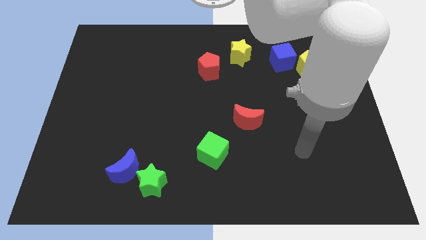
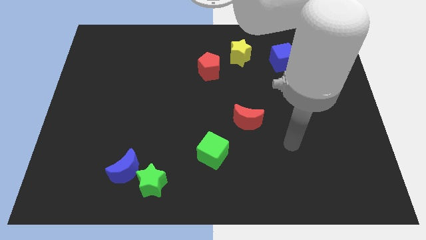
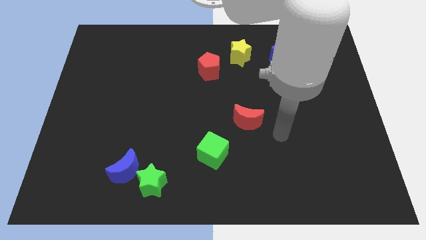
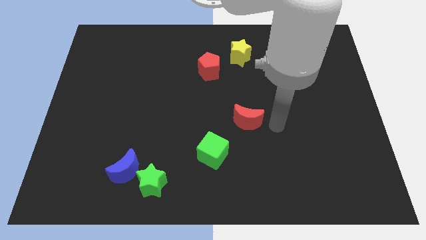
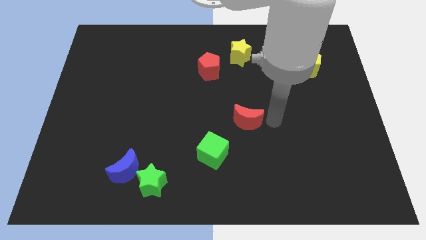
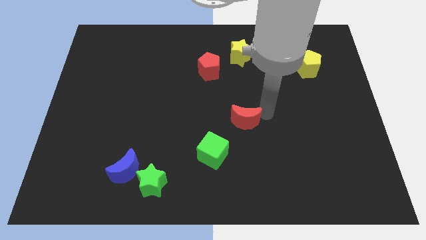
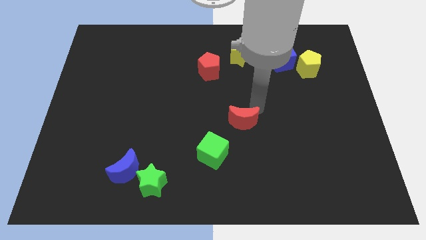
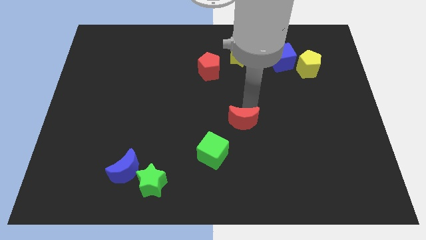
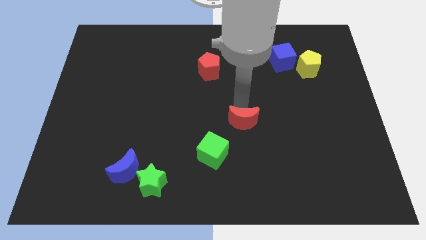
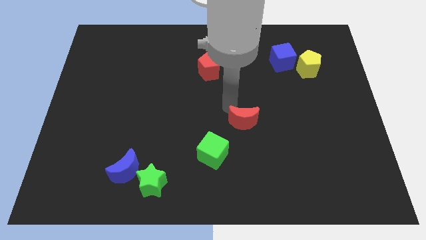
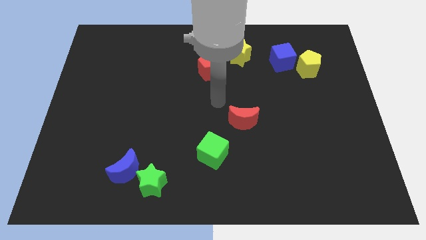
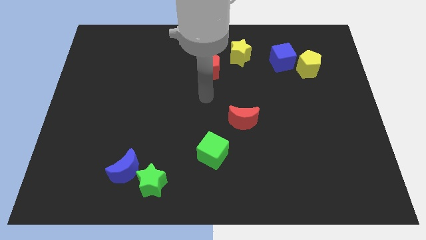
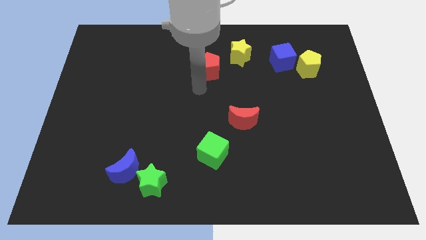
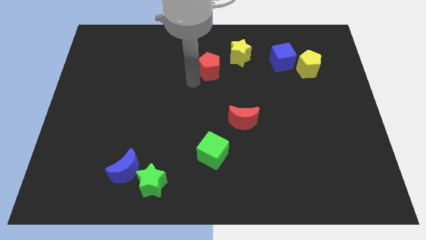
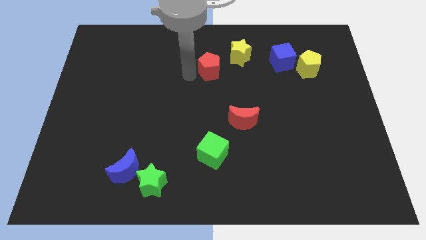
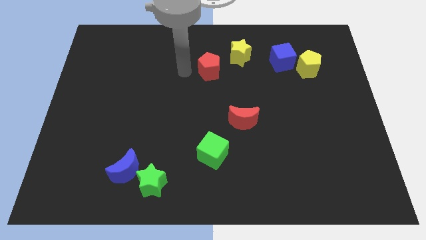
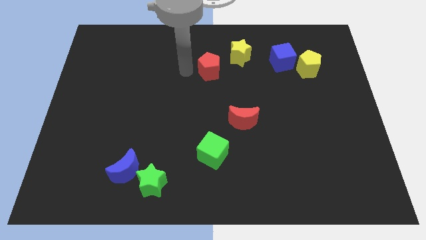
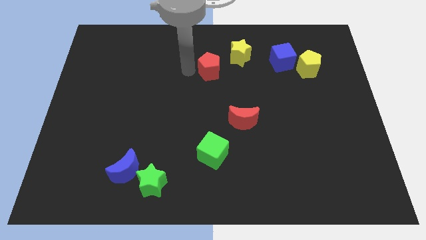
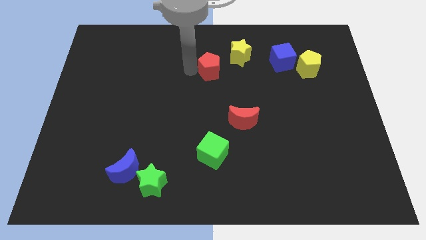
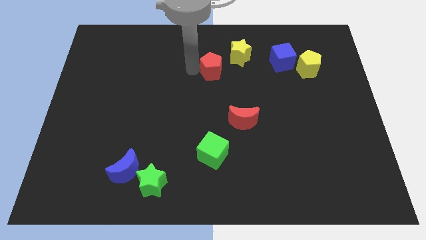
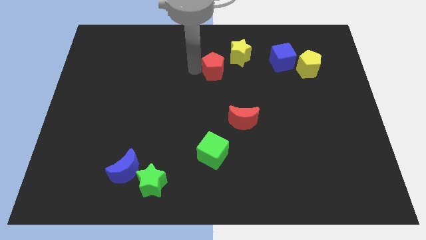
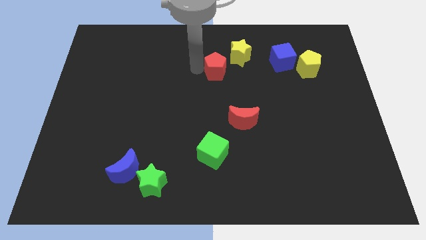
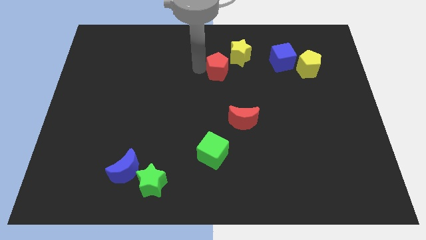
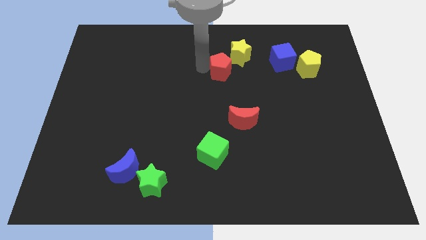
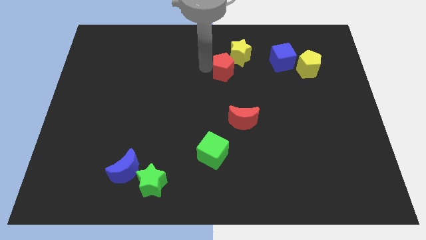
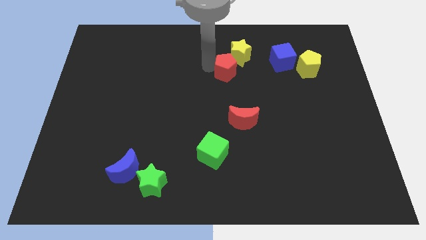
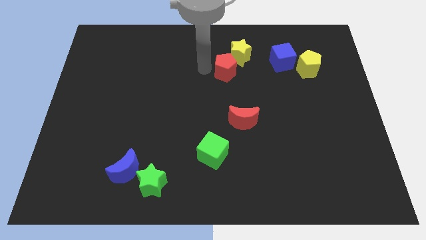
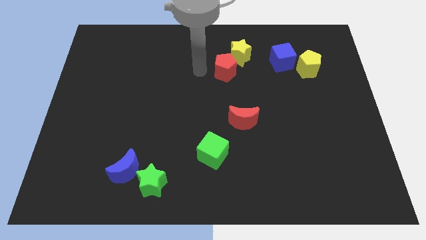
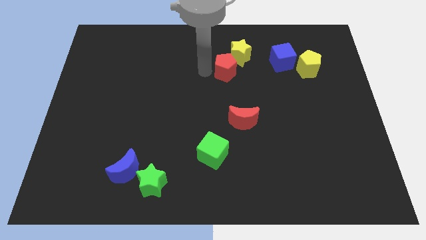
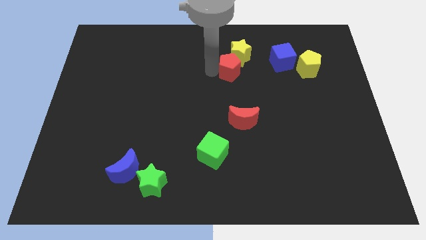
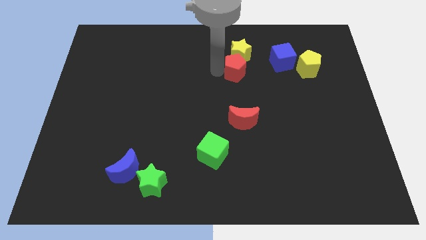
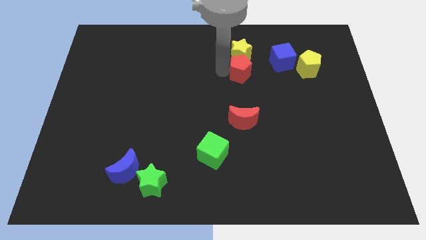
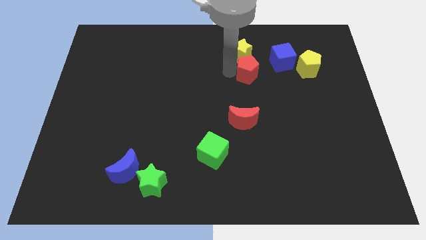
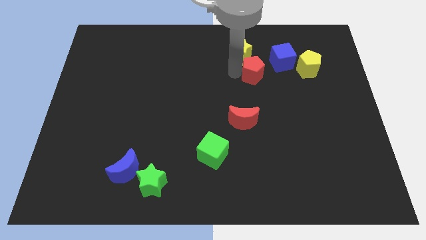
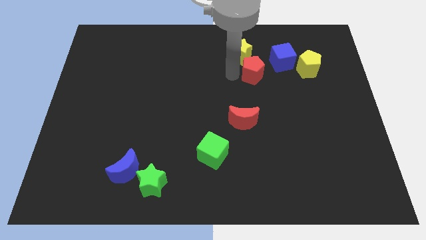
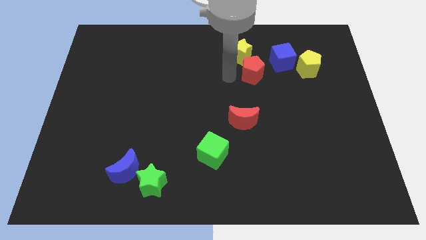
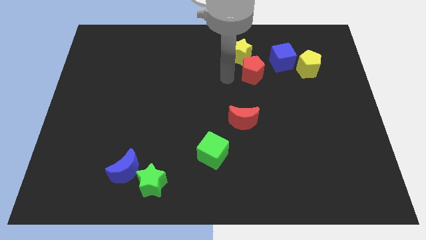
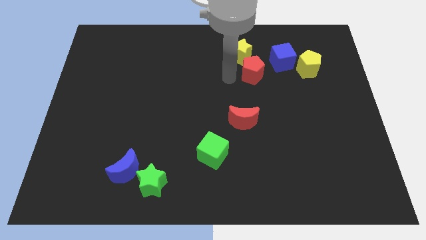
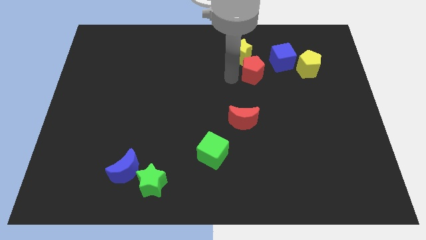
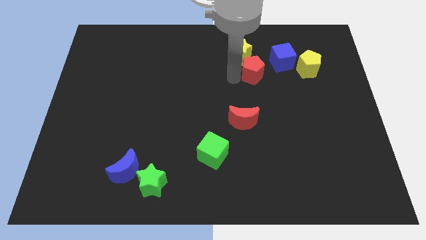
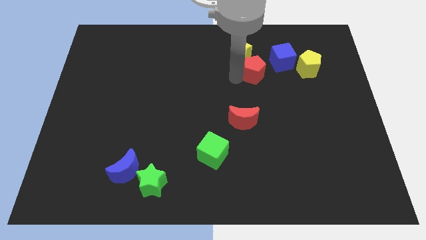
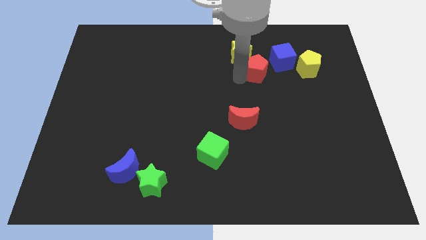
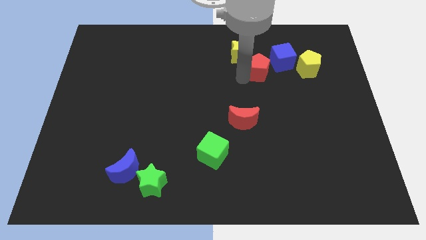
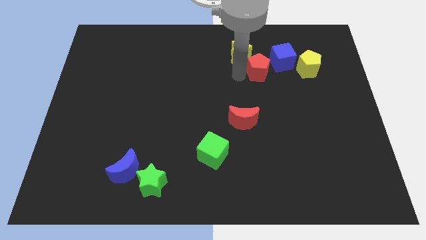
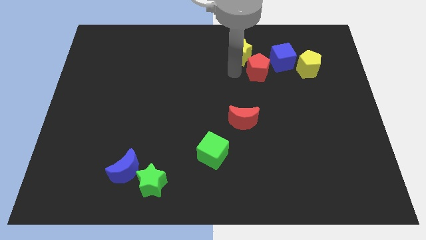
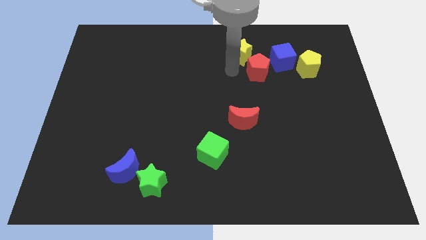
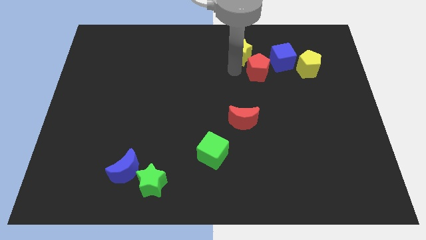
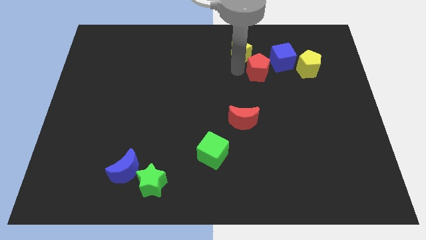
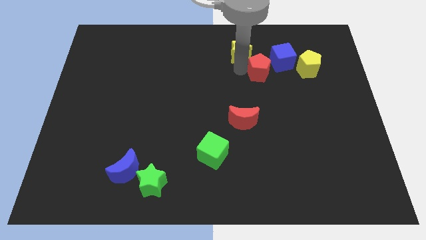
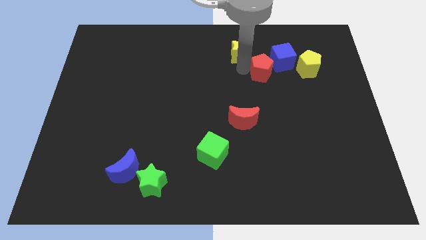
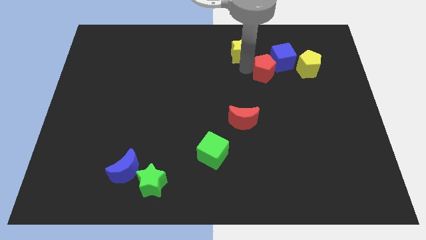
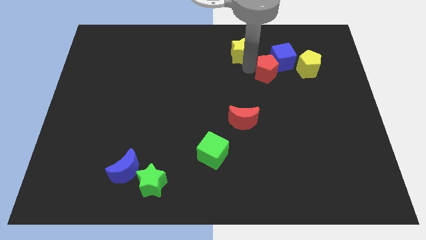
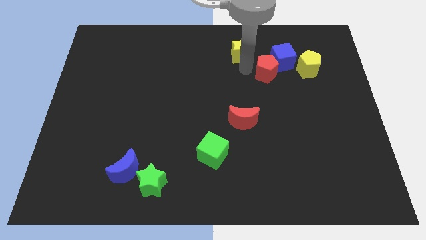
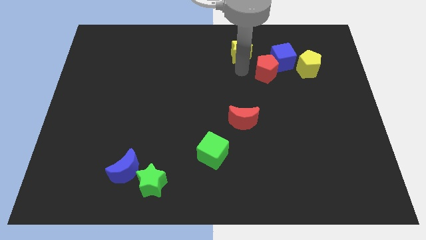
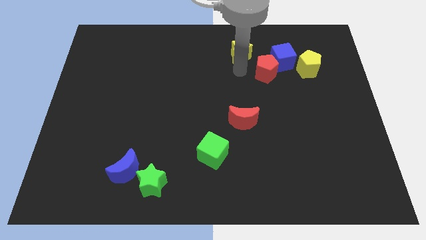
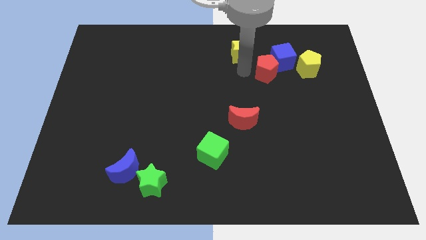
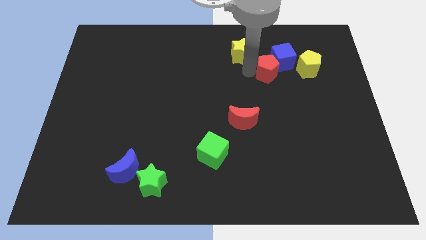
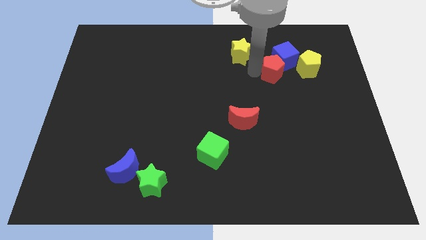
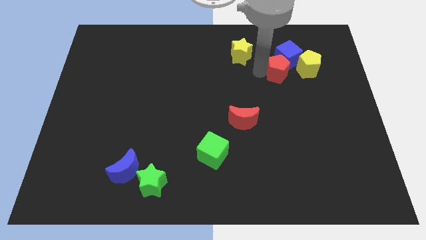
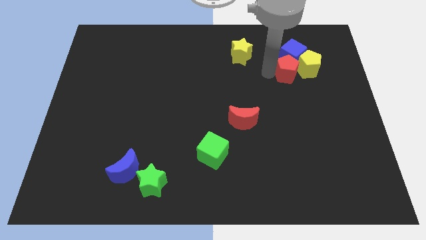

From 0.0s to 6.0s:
put the red pentagon close to the yellow pentagon
